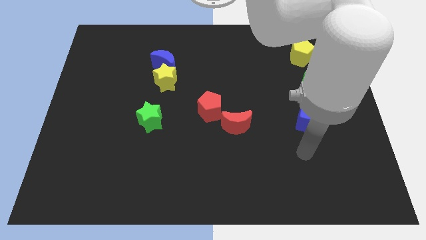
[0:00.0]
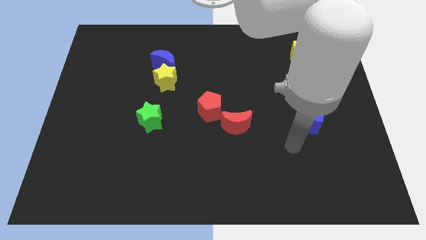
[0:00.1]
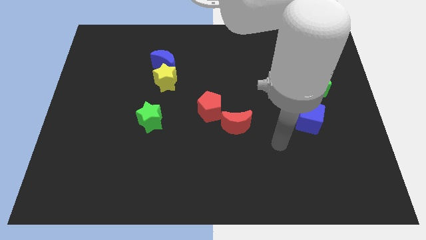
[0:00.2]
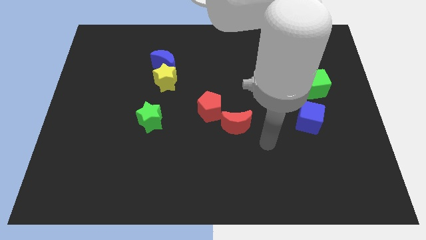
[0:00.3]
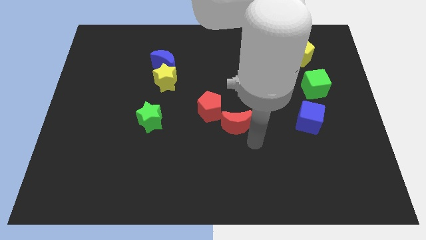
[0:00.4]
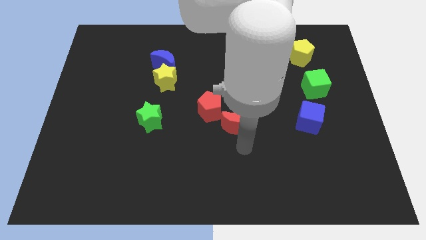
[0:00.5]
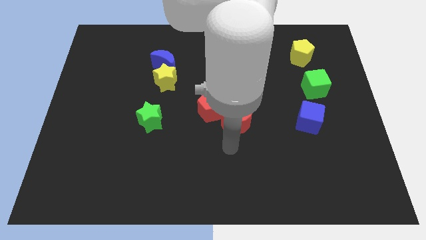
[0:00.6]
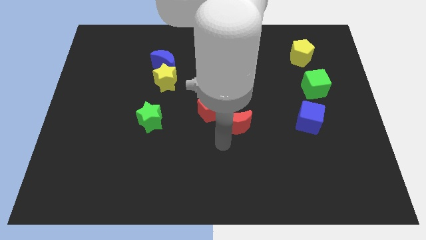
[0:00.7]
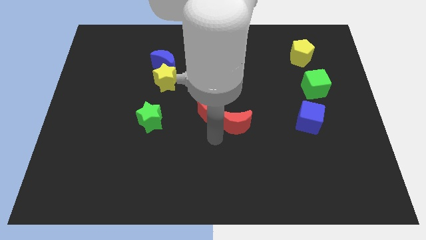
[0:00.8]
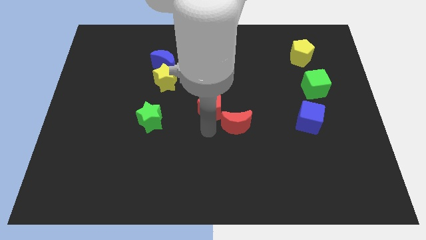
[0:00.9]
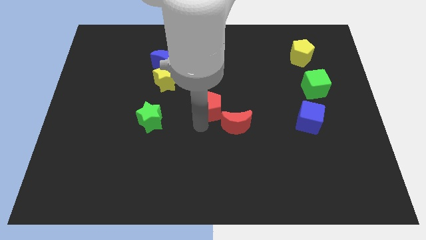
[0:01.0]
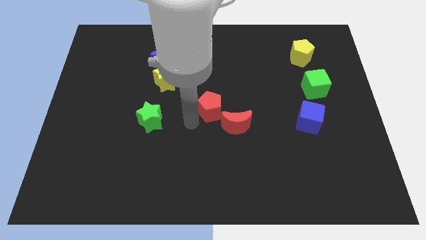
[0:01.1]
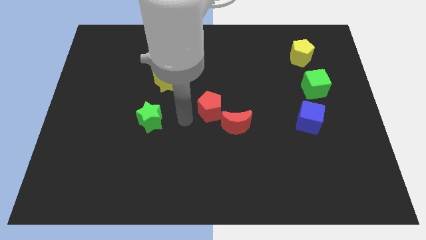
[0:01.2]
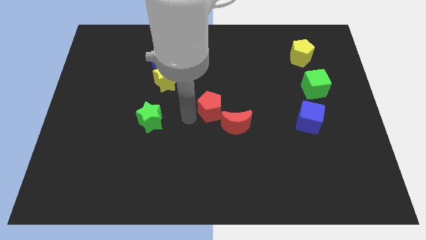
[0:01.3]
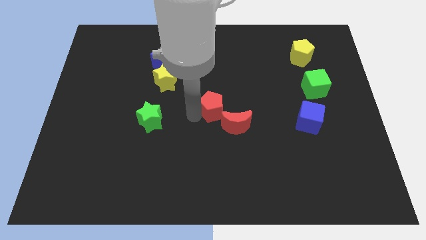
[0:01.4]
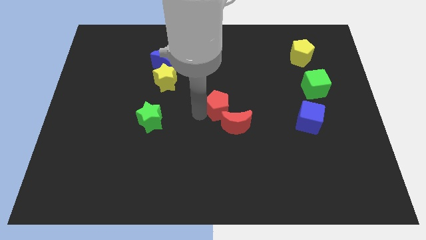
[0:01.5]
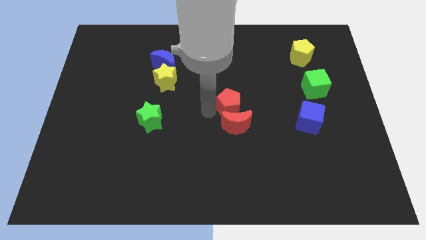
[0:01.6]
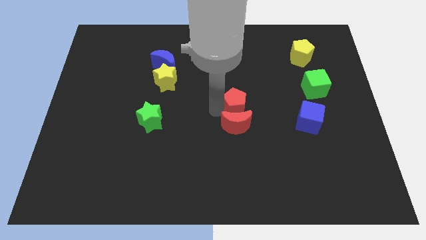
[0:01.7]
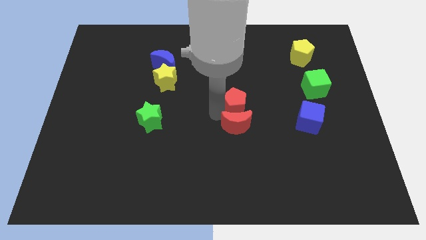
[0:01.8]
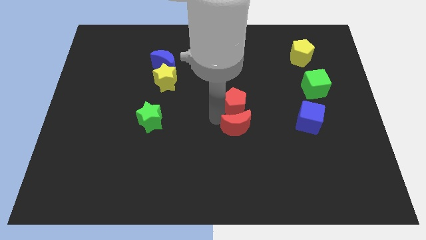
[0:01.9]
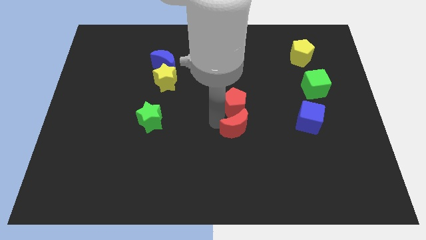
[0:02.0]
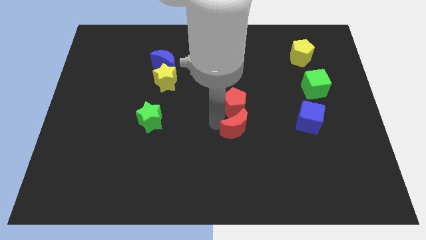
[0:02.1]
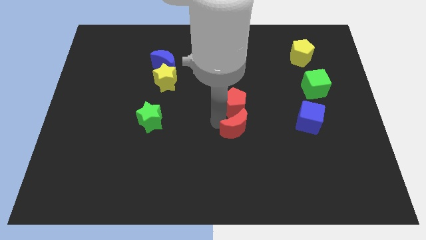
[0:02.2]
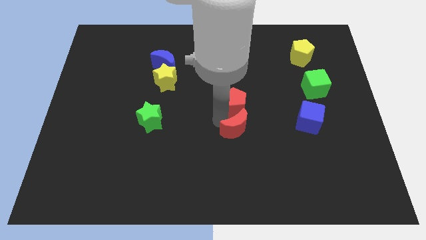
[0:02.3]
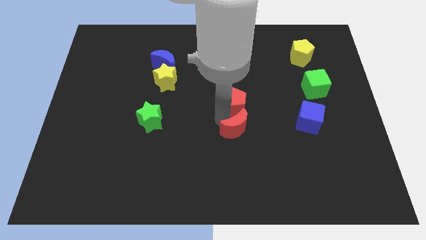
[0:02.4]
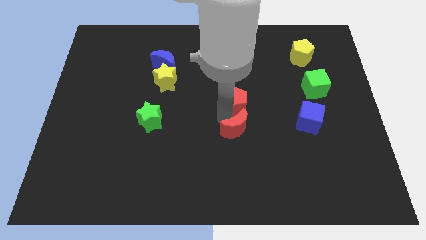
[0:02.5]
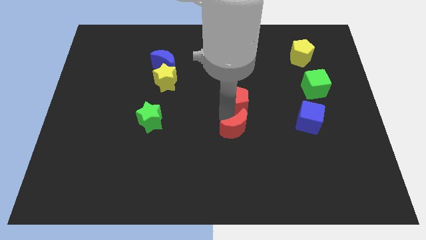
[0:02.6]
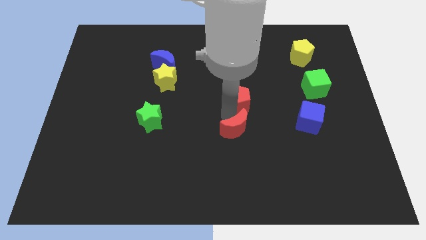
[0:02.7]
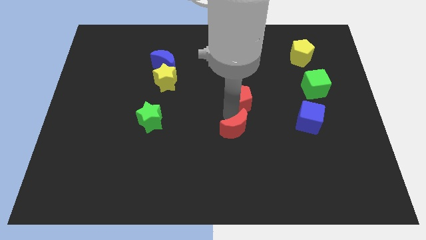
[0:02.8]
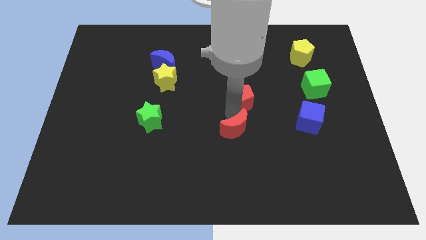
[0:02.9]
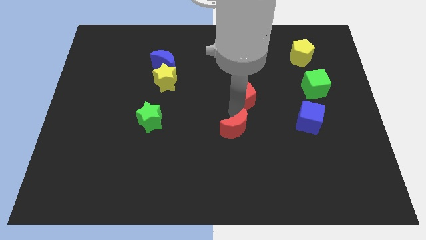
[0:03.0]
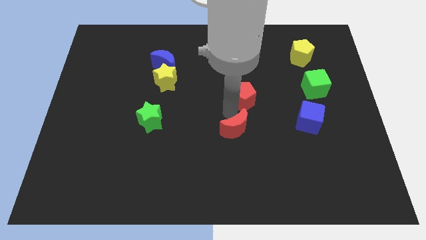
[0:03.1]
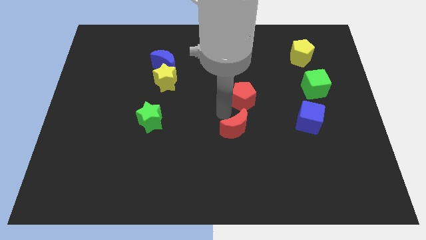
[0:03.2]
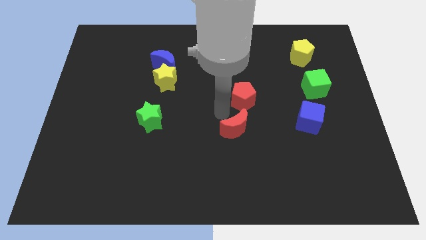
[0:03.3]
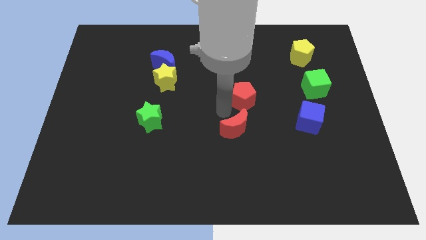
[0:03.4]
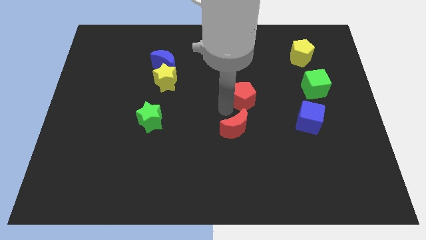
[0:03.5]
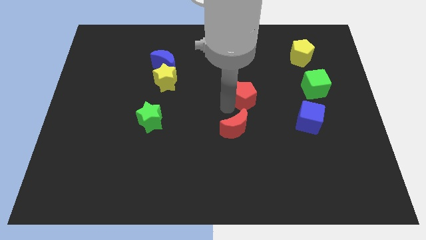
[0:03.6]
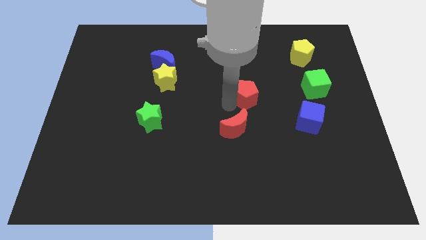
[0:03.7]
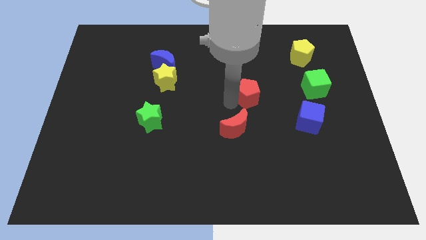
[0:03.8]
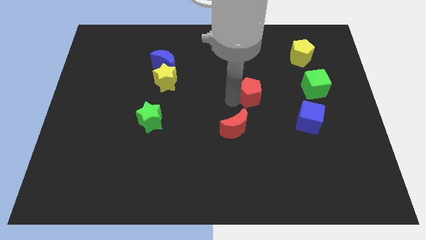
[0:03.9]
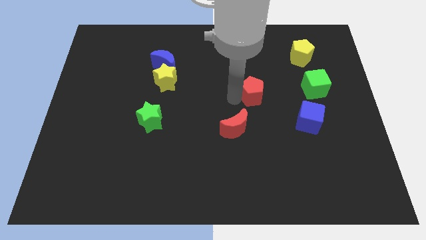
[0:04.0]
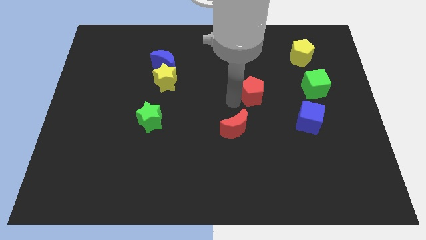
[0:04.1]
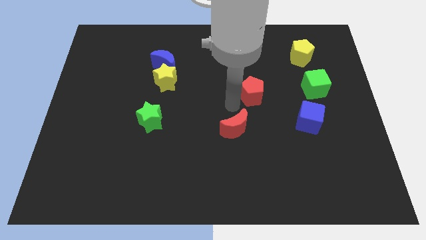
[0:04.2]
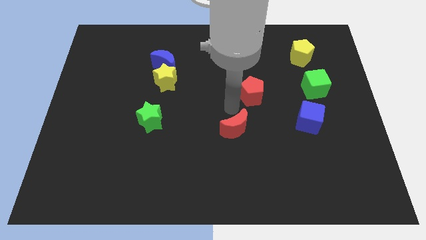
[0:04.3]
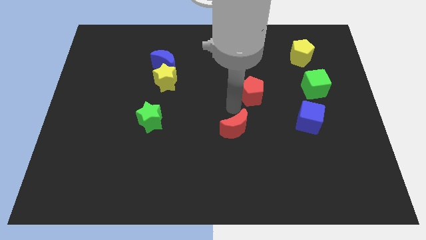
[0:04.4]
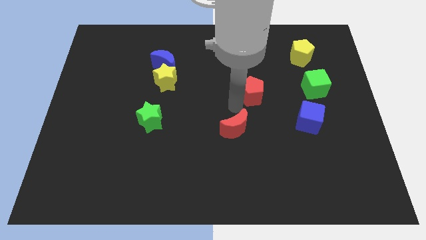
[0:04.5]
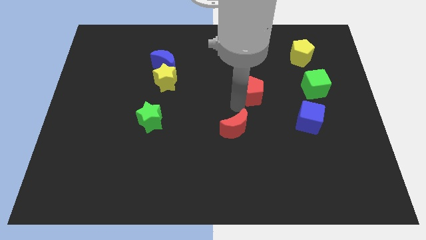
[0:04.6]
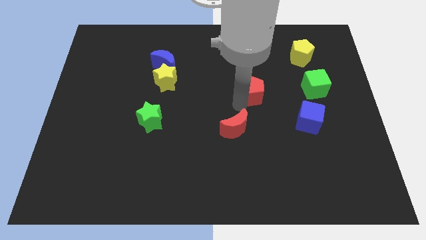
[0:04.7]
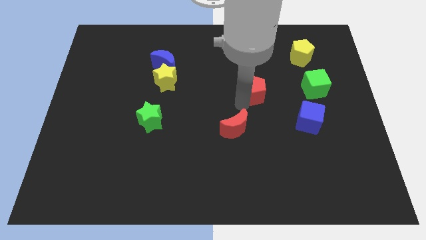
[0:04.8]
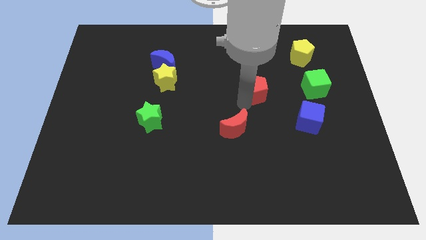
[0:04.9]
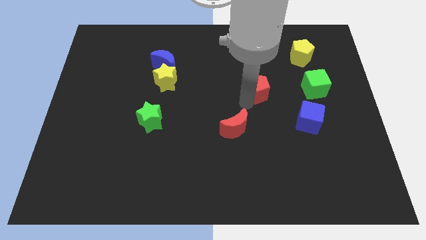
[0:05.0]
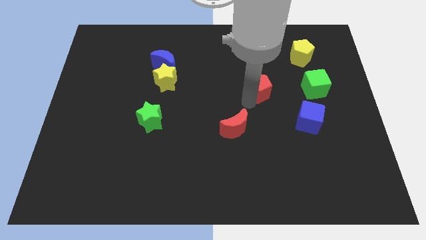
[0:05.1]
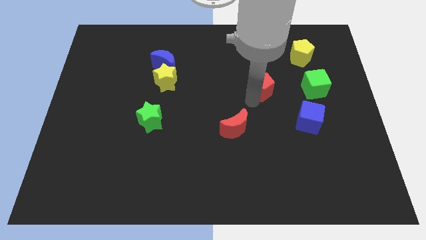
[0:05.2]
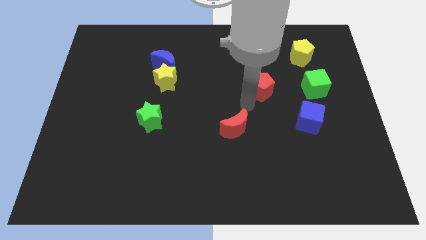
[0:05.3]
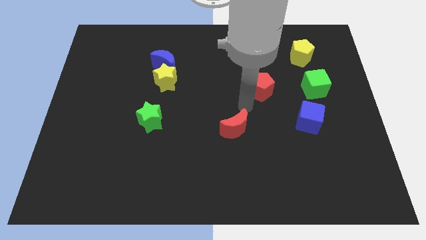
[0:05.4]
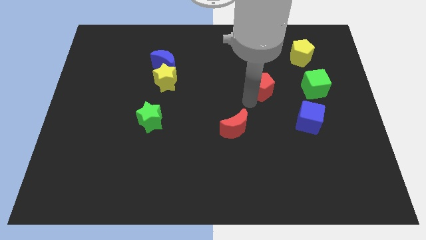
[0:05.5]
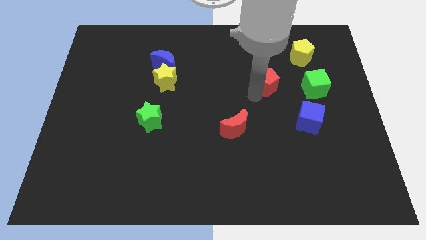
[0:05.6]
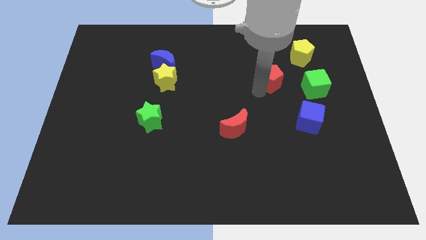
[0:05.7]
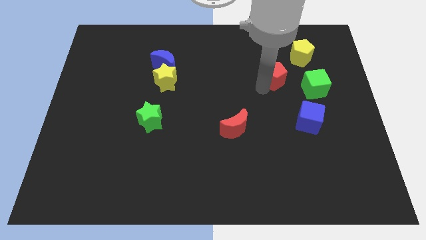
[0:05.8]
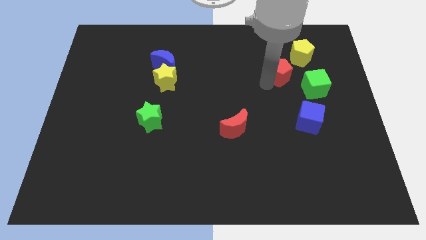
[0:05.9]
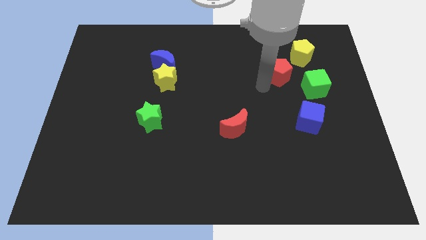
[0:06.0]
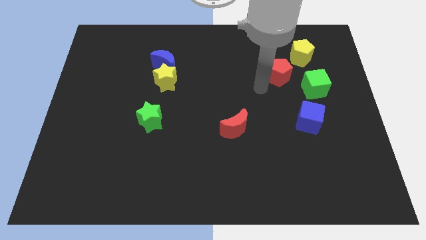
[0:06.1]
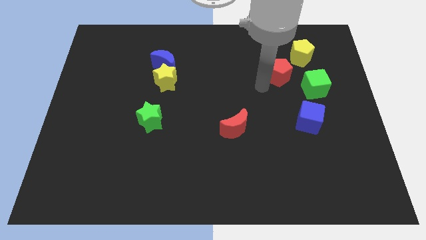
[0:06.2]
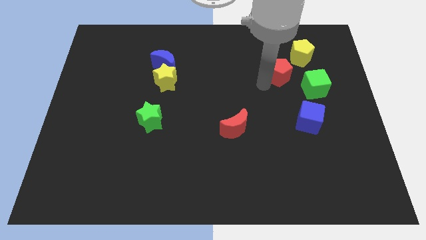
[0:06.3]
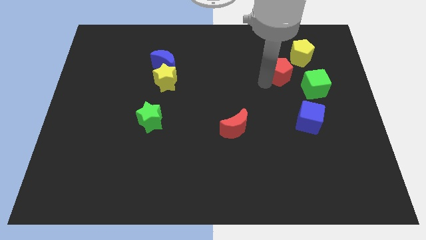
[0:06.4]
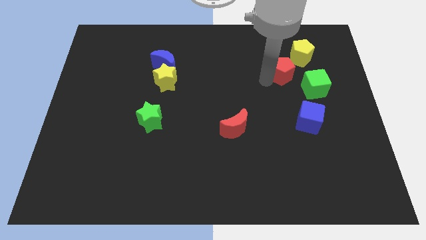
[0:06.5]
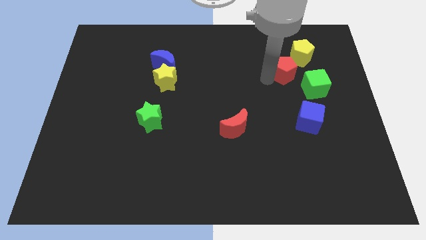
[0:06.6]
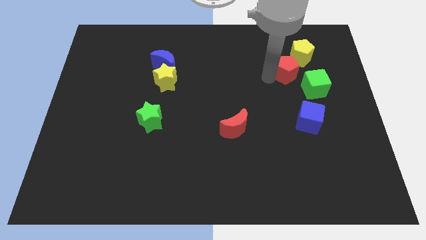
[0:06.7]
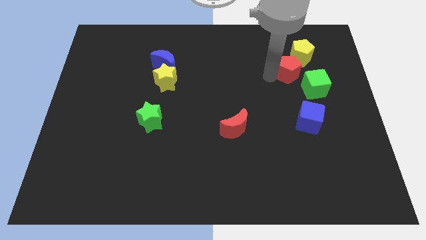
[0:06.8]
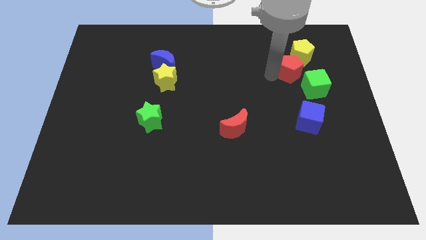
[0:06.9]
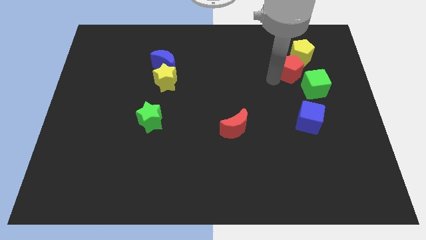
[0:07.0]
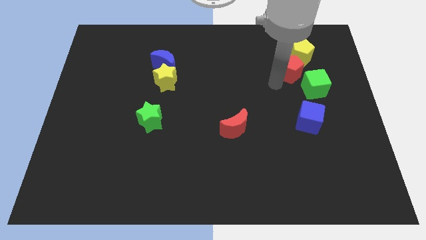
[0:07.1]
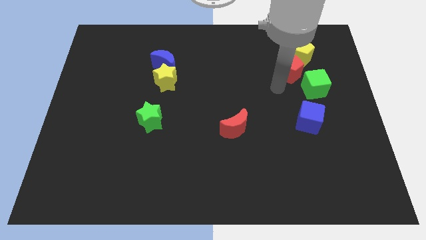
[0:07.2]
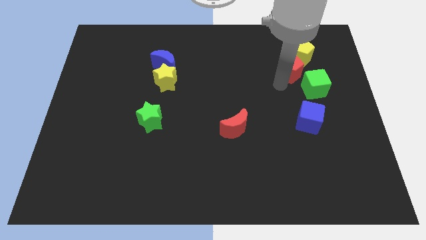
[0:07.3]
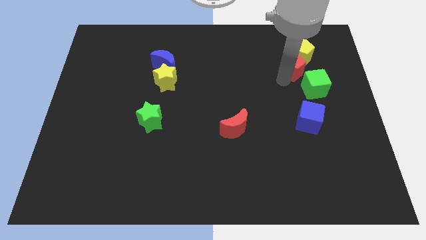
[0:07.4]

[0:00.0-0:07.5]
push the red pentagon close to the yellow pentagon
